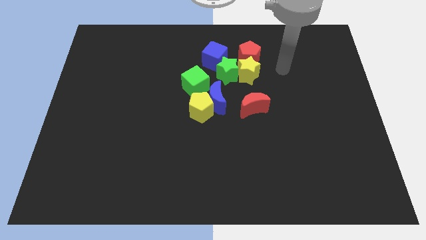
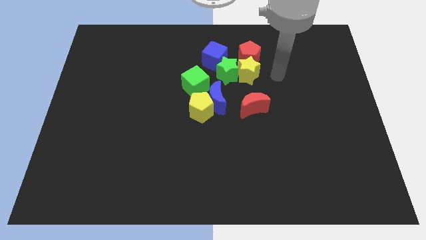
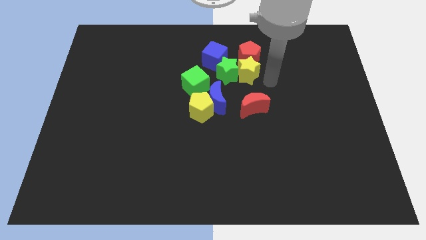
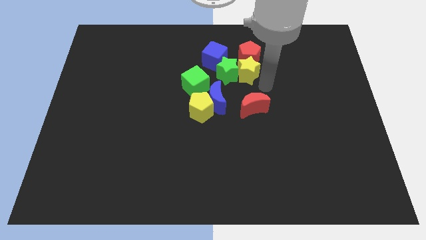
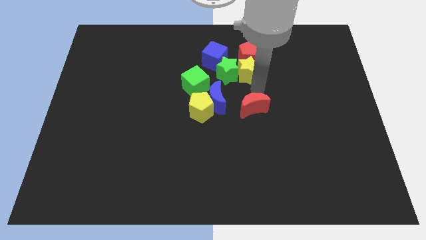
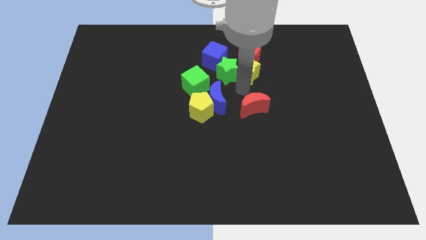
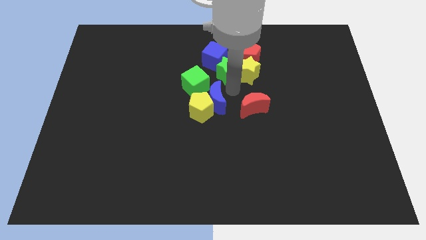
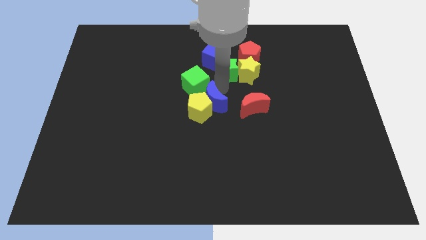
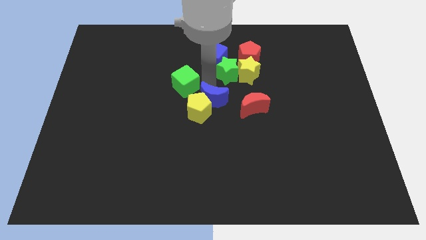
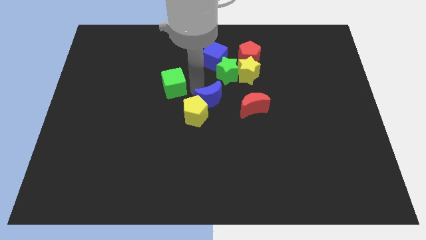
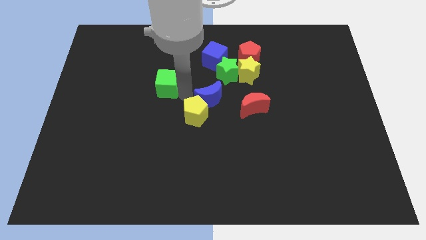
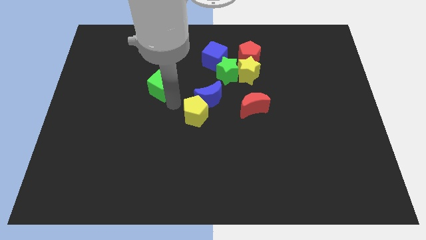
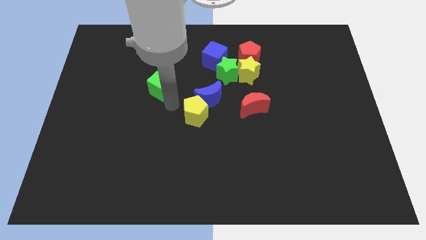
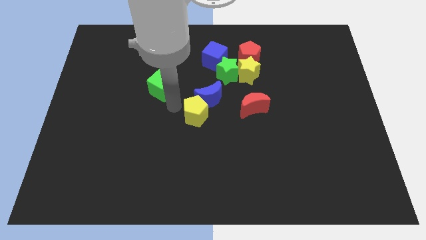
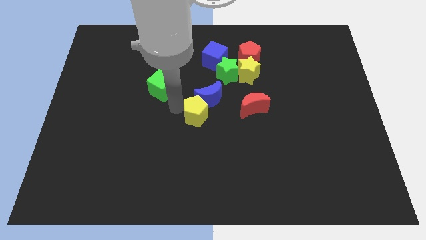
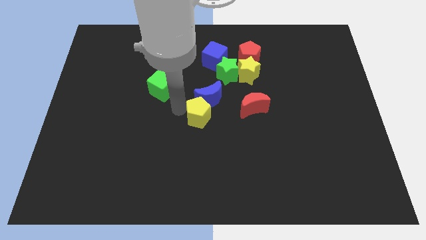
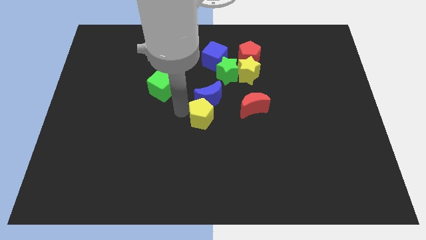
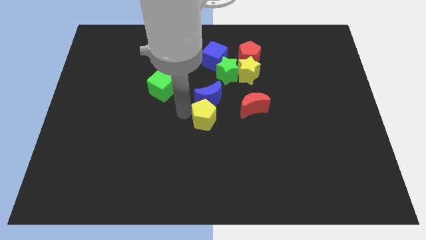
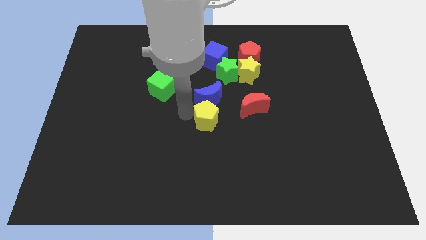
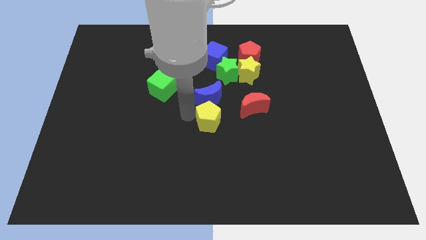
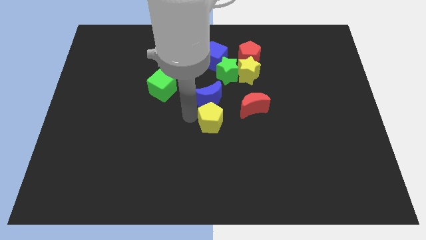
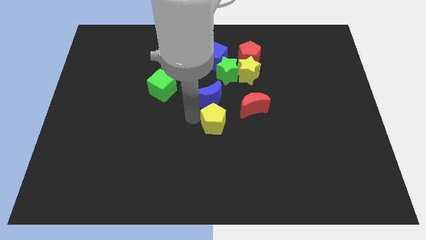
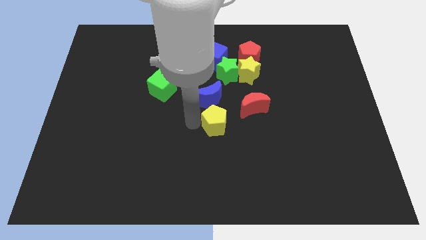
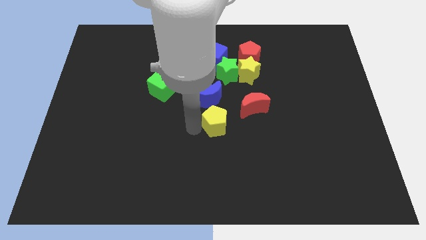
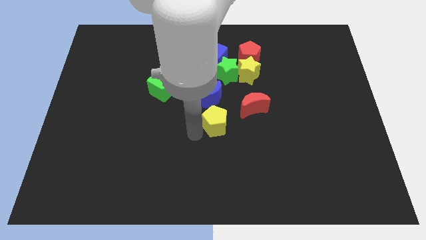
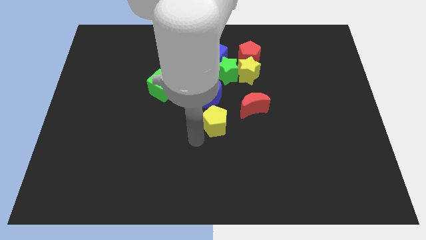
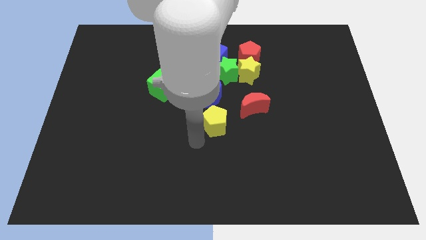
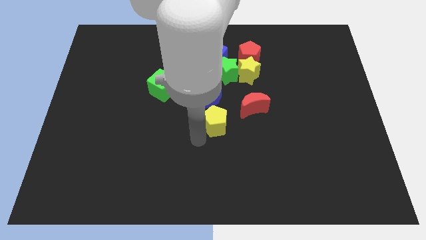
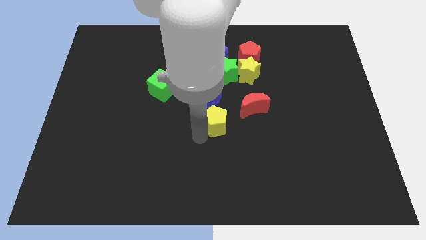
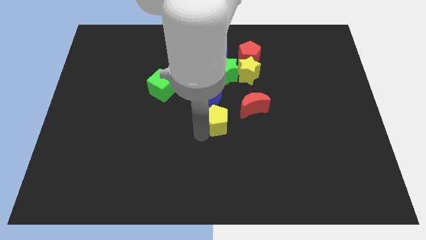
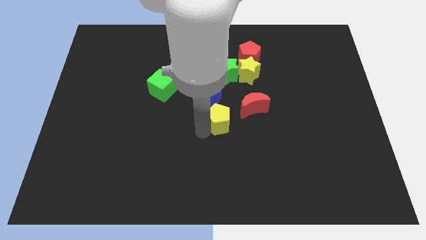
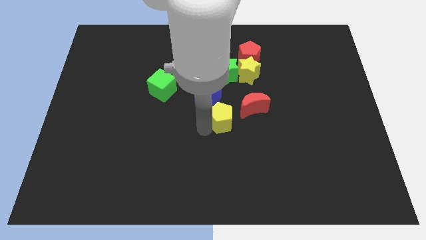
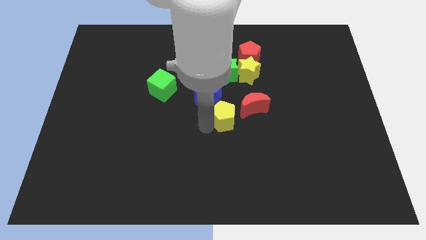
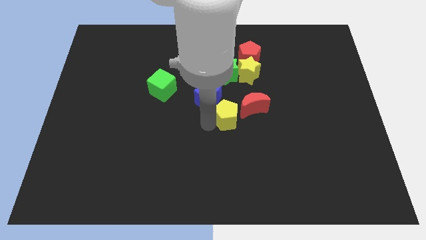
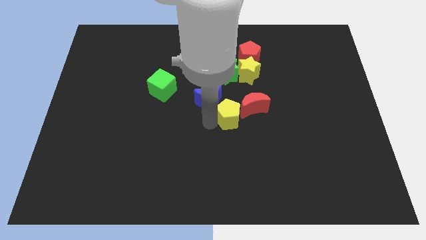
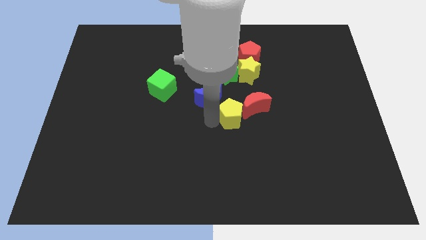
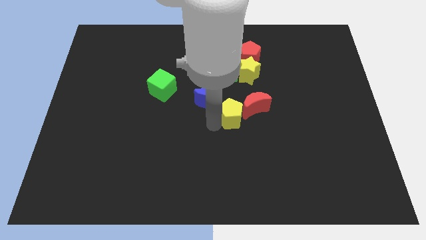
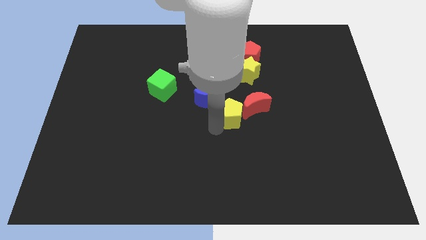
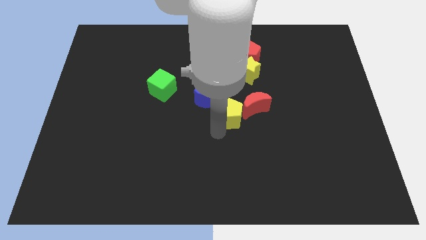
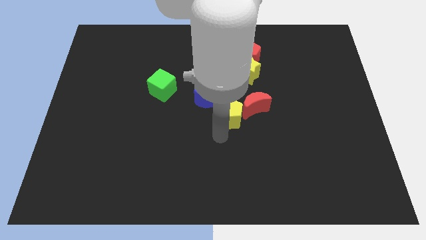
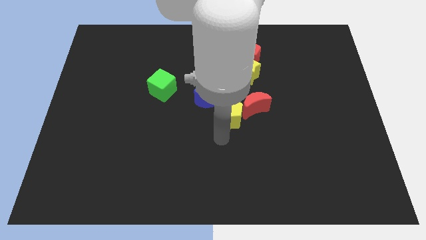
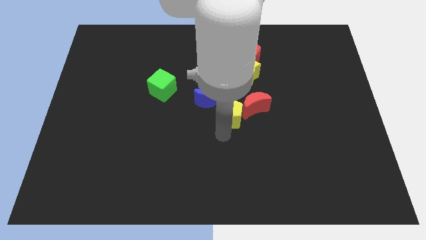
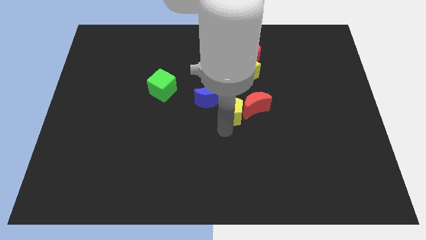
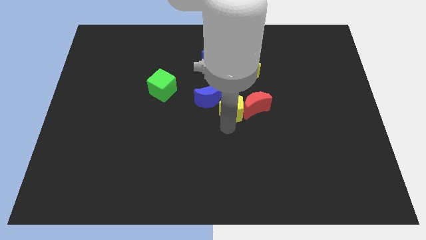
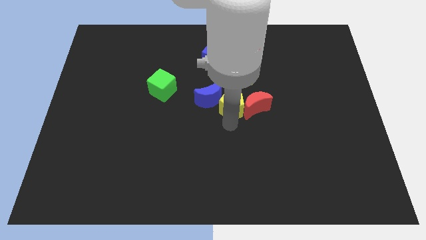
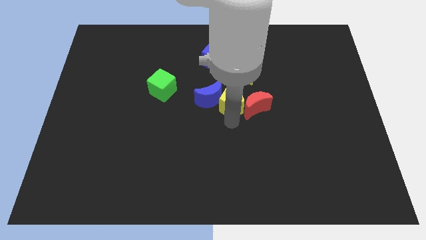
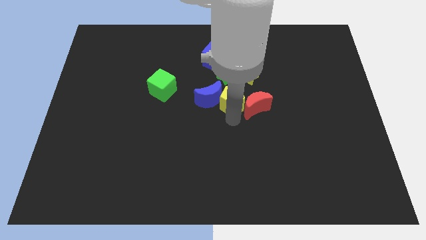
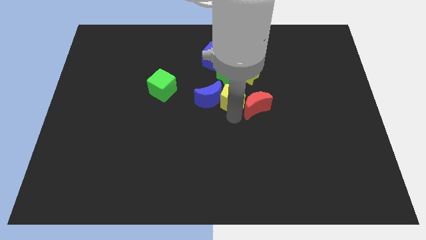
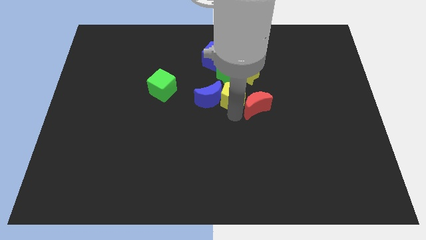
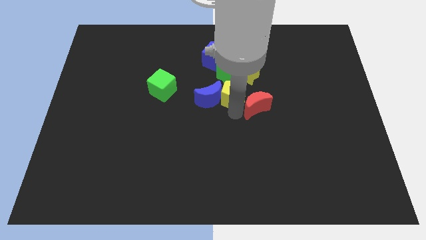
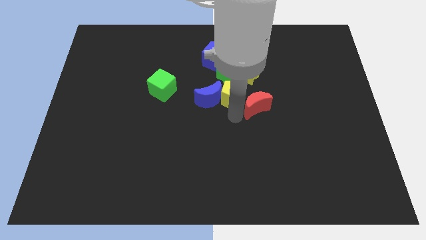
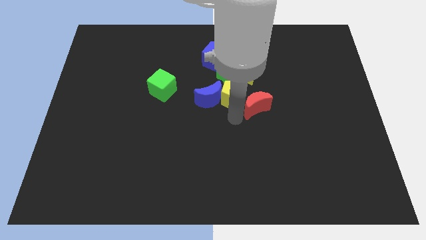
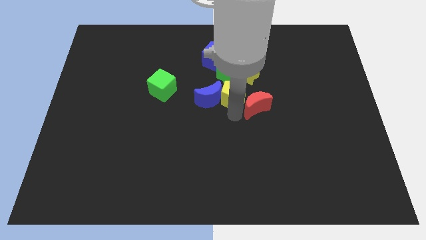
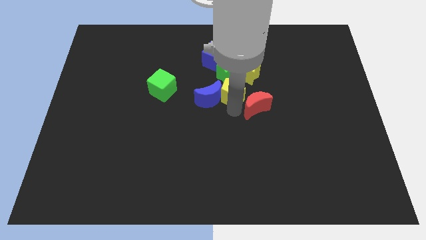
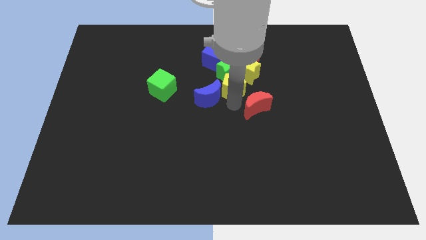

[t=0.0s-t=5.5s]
put the yellow pentagon towards the green star

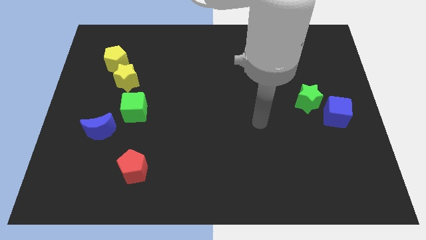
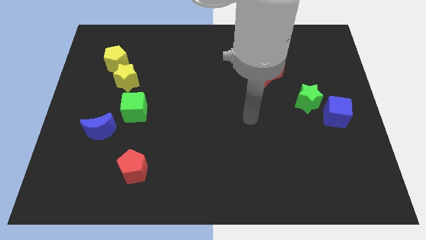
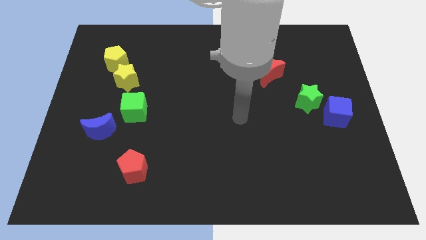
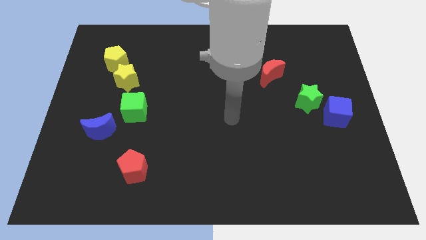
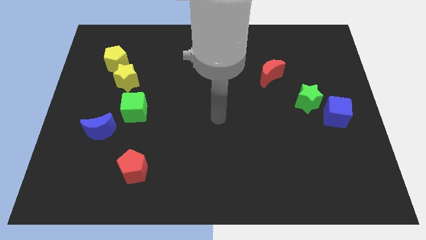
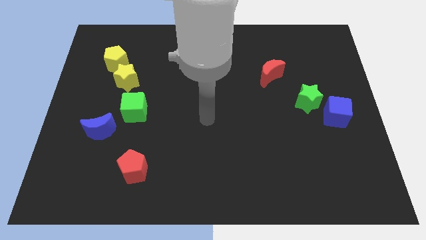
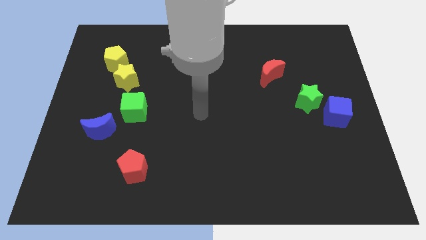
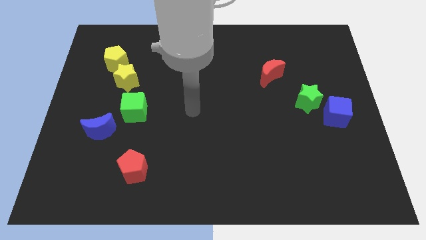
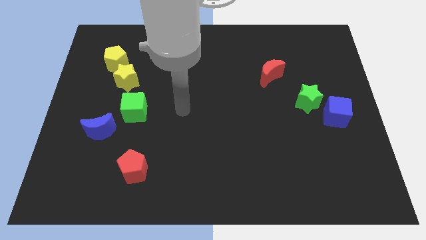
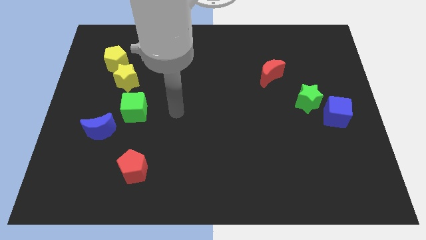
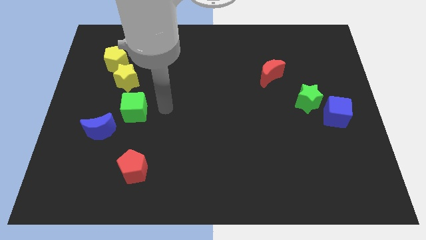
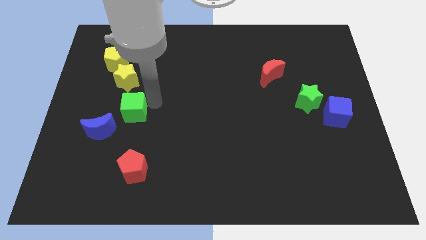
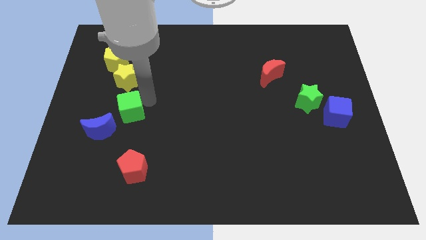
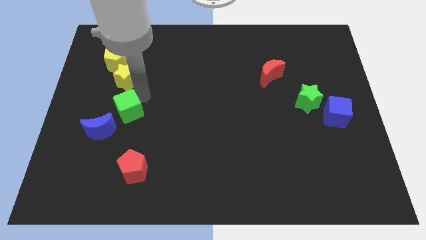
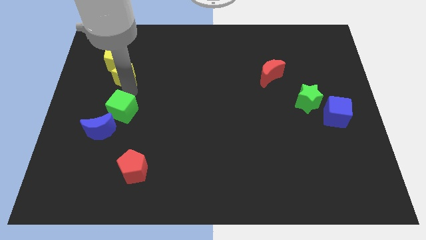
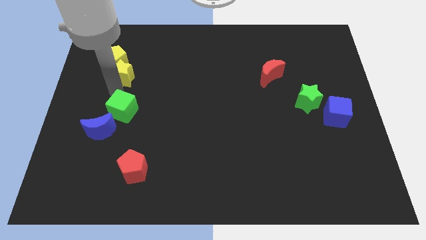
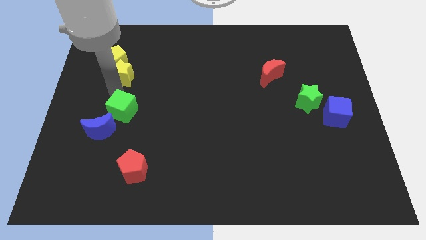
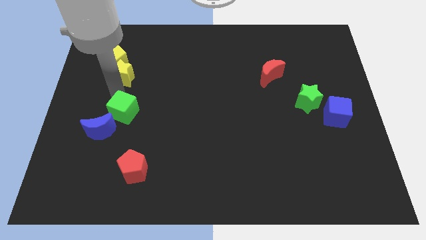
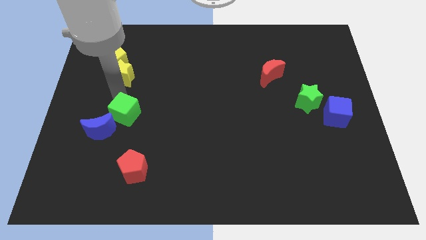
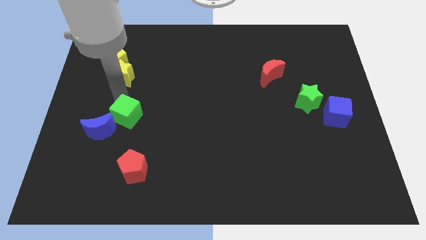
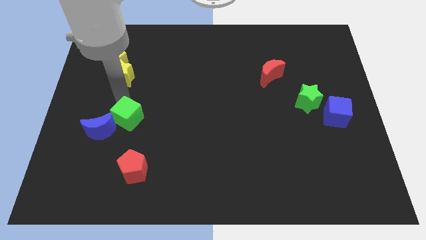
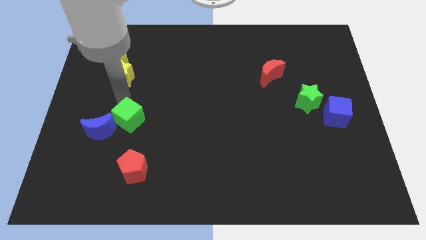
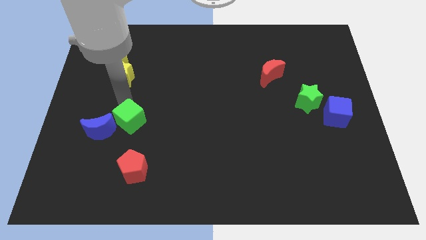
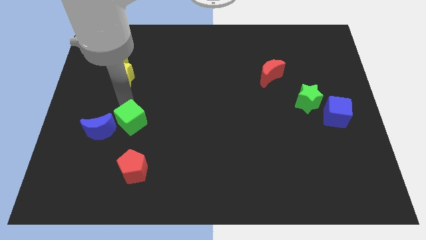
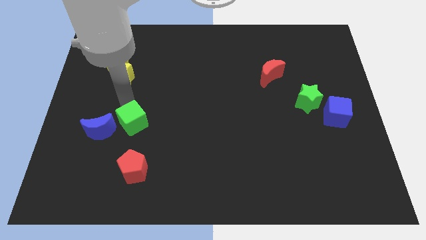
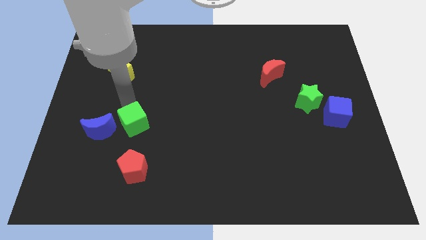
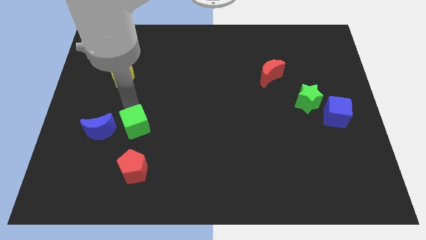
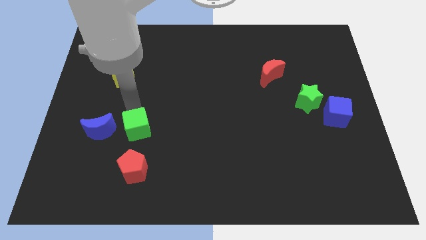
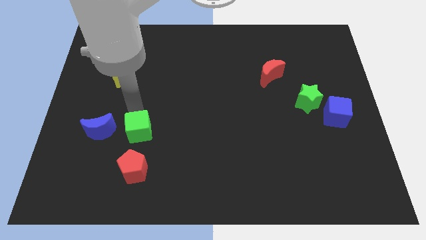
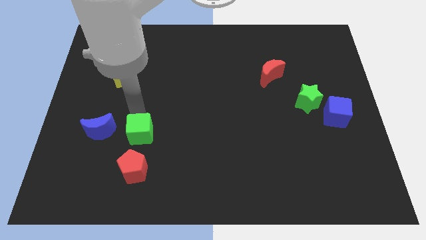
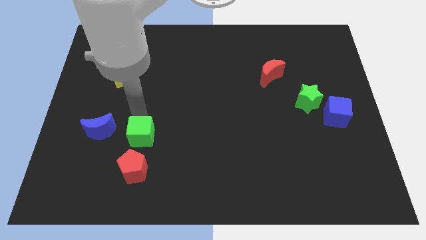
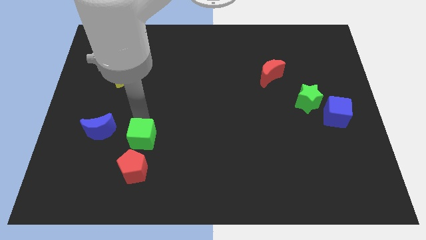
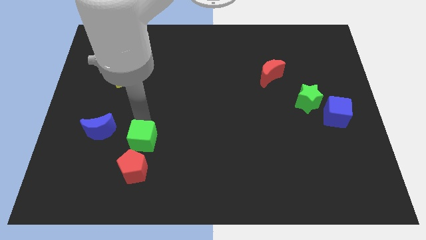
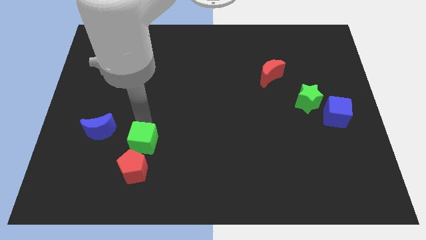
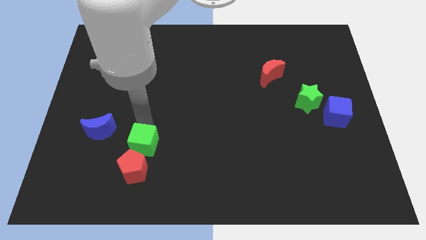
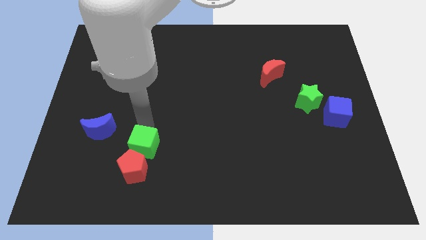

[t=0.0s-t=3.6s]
slide the green cube close to the red pentagon
